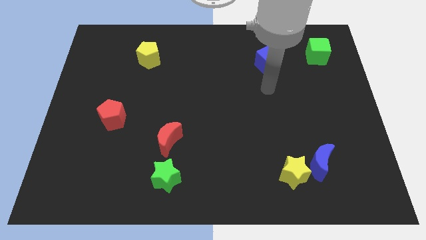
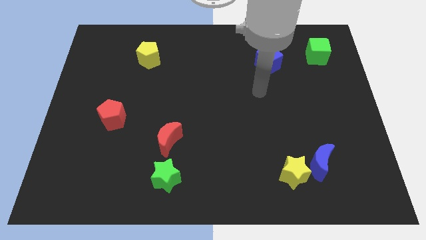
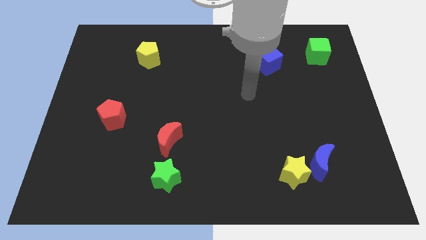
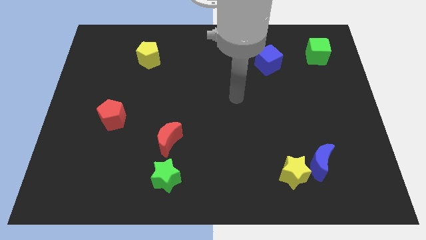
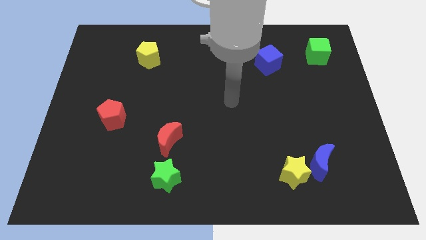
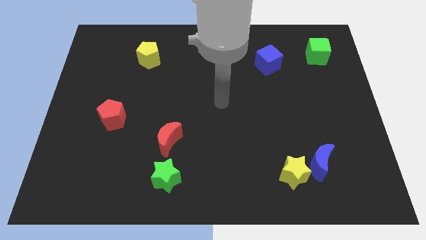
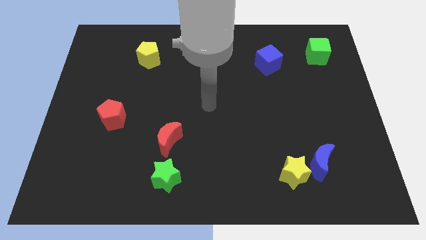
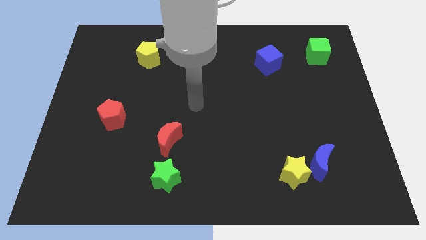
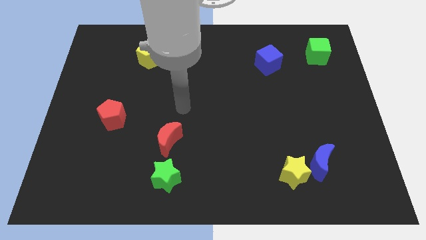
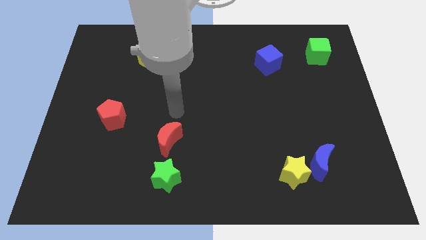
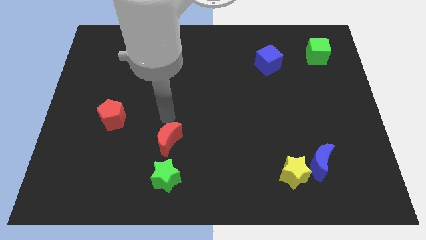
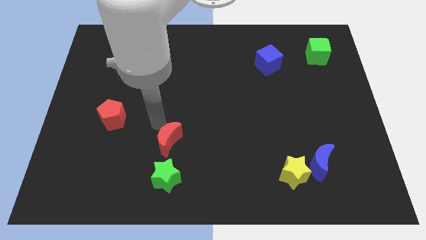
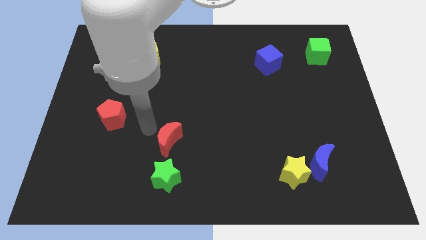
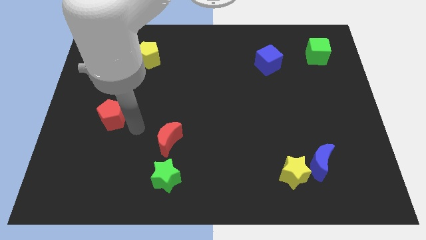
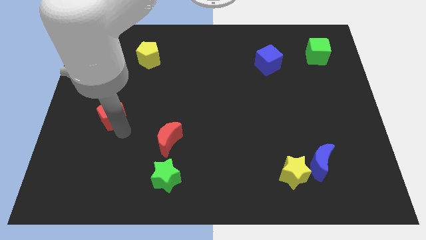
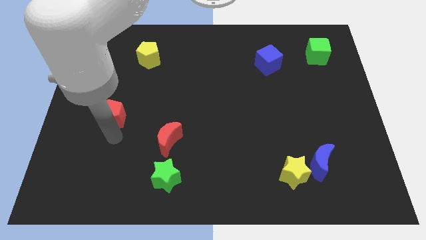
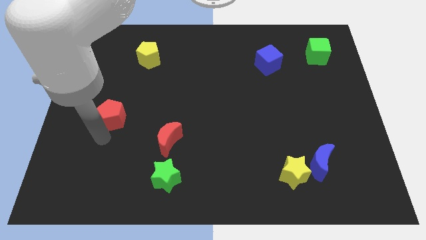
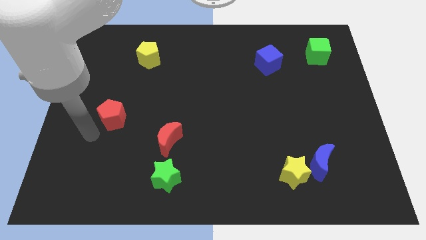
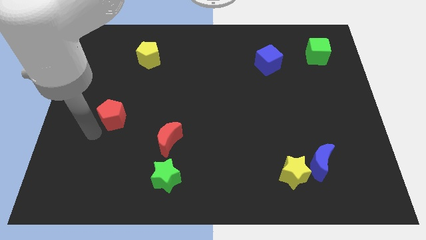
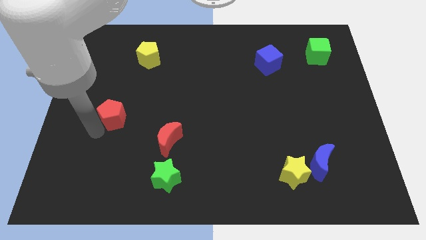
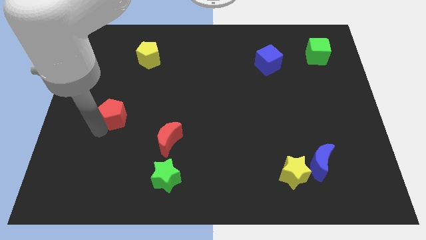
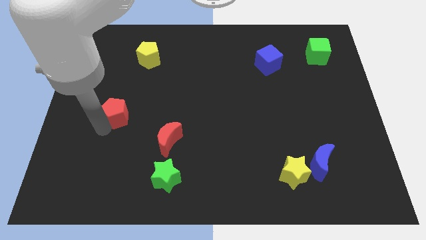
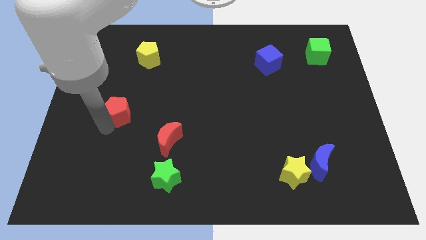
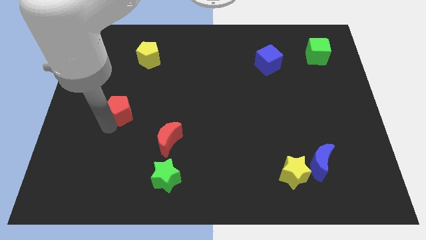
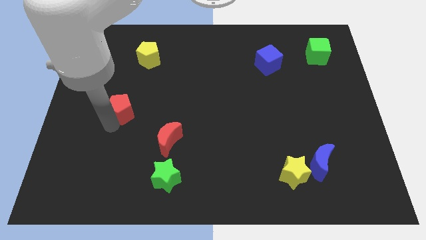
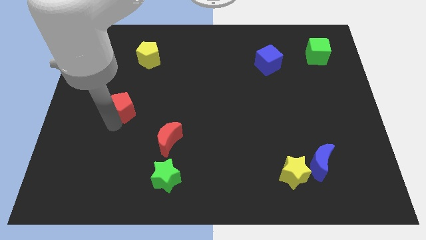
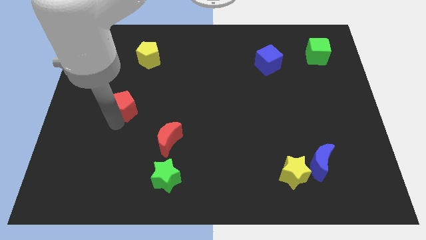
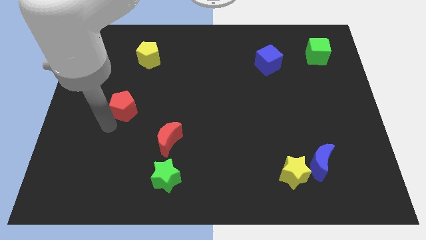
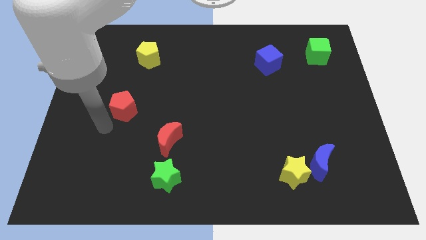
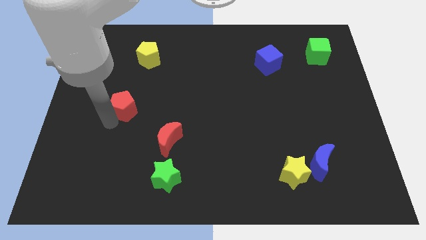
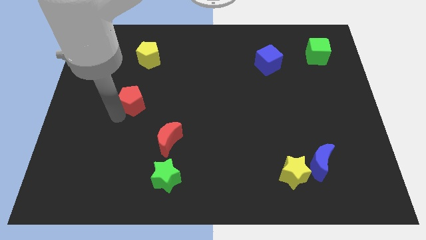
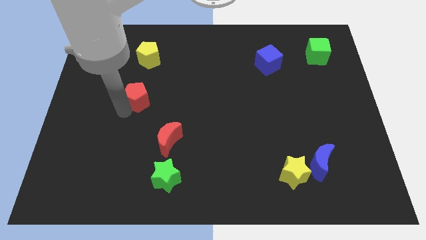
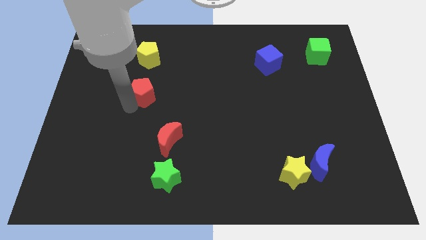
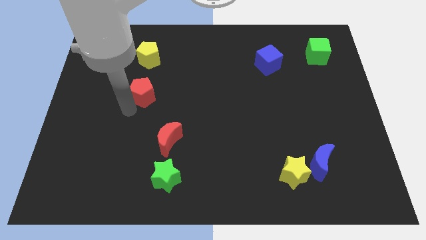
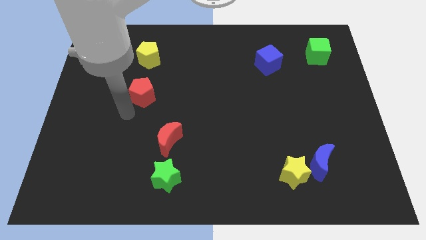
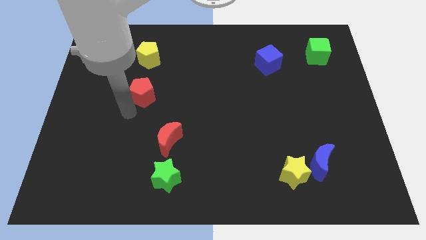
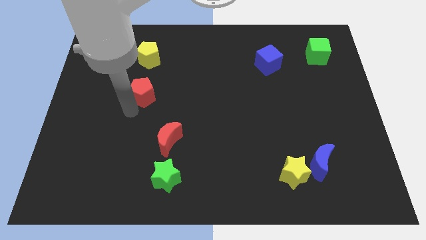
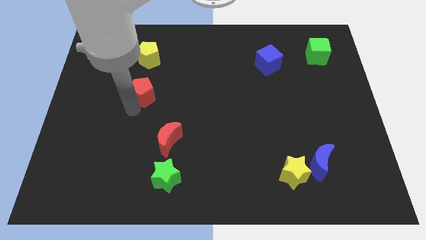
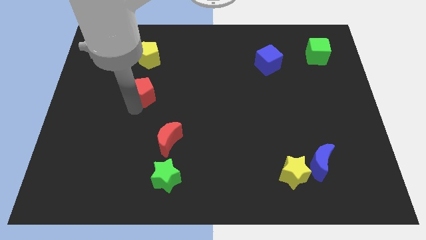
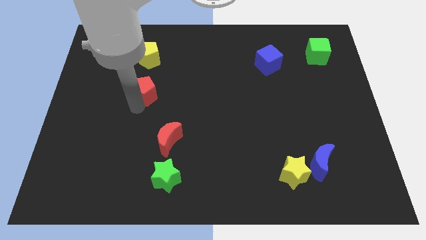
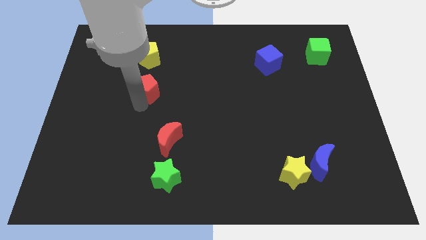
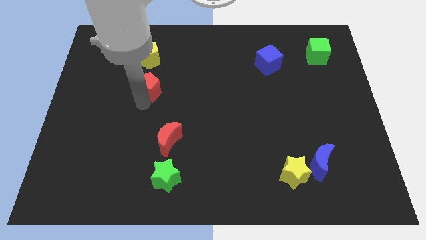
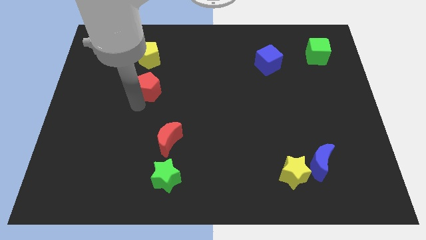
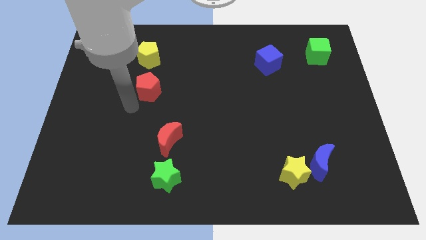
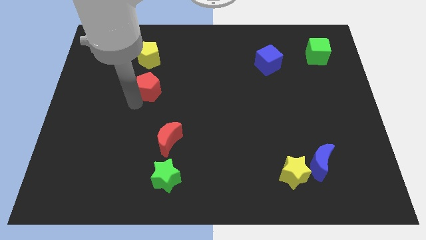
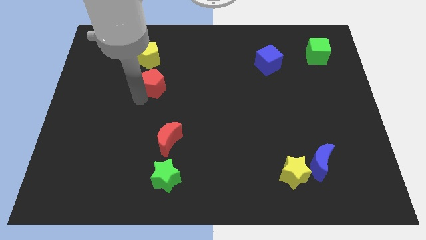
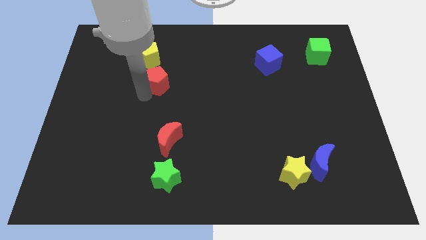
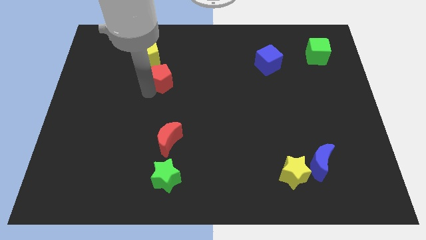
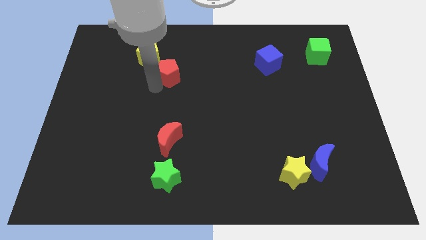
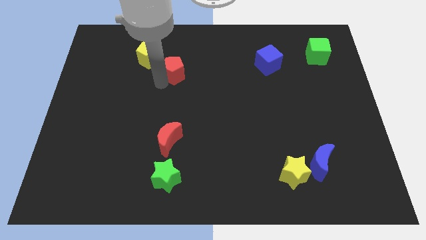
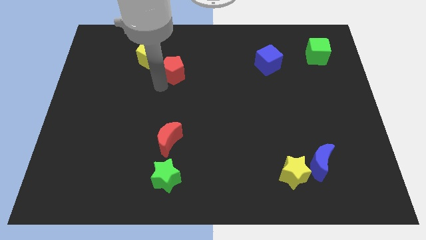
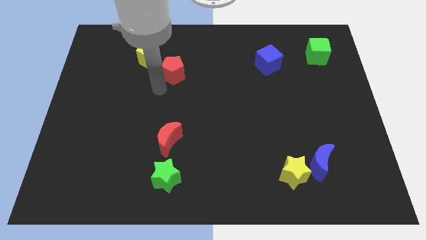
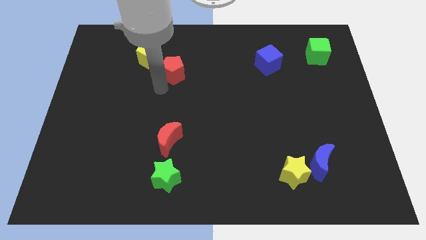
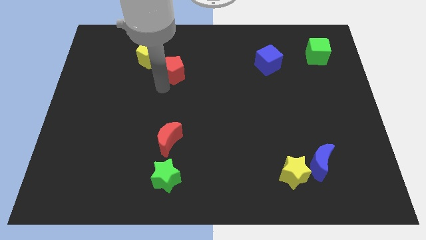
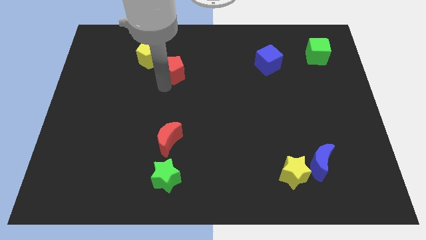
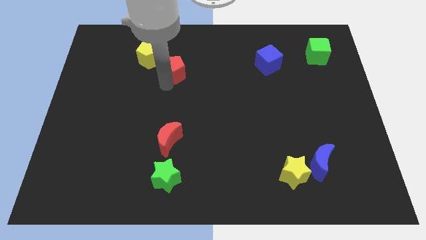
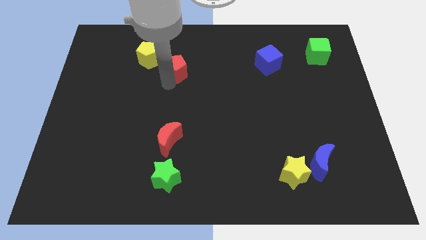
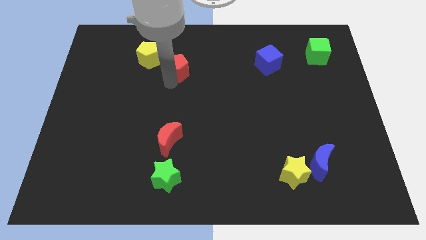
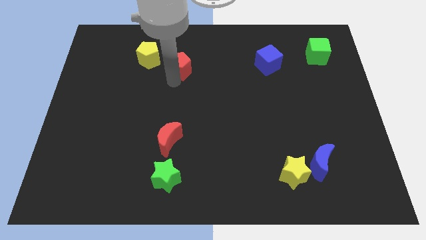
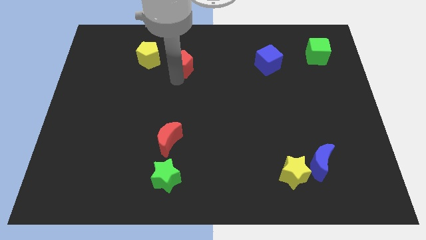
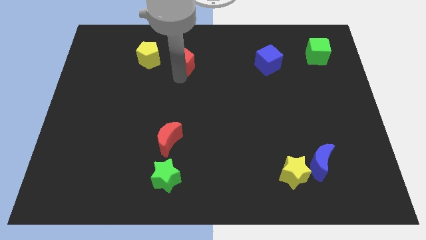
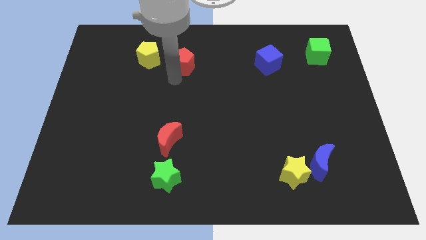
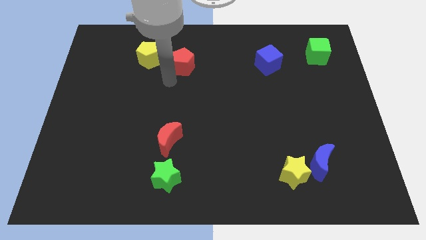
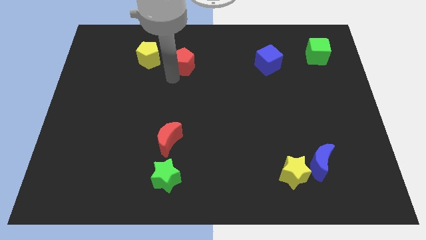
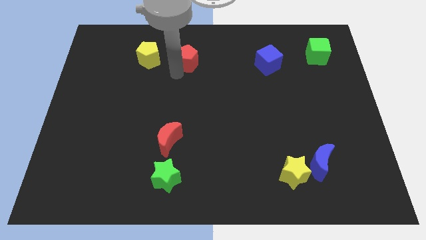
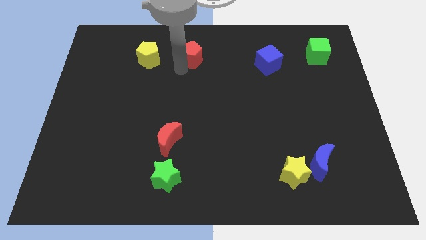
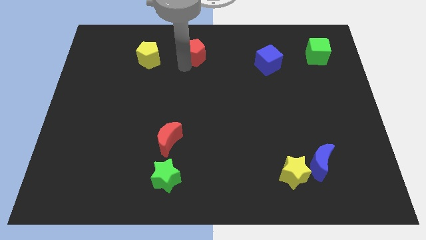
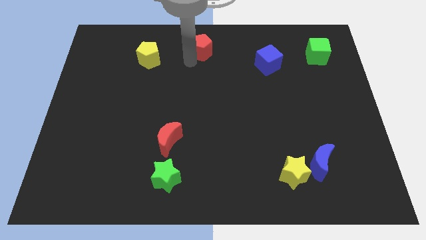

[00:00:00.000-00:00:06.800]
push the red pentagon to the top
